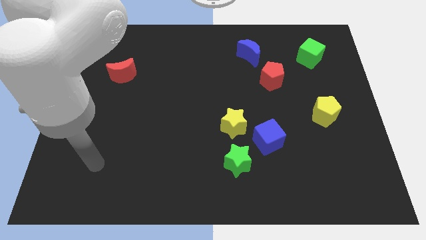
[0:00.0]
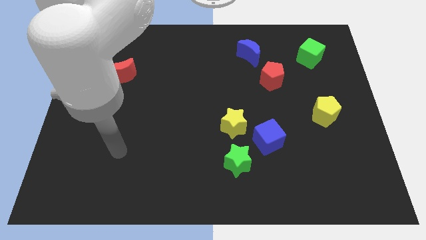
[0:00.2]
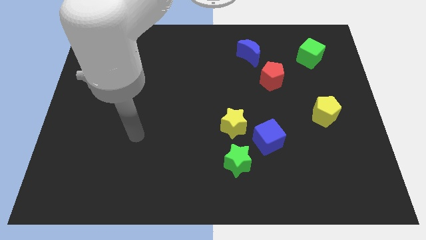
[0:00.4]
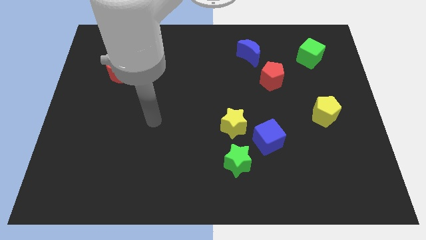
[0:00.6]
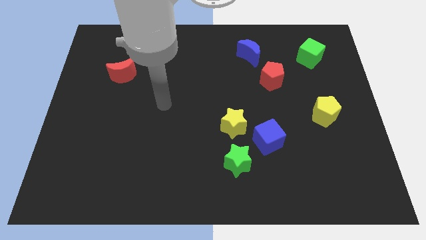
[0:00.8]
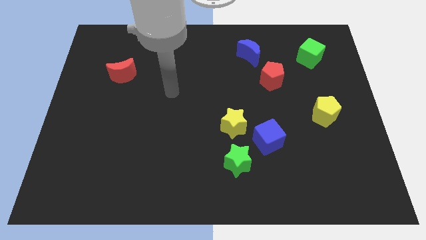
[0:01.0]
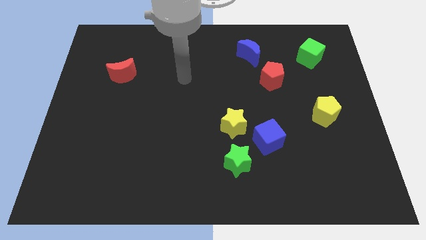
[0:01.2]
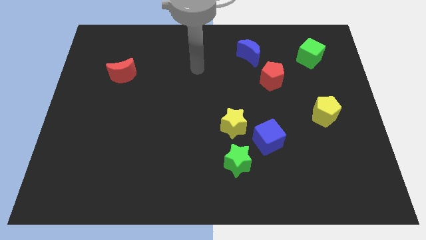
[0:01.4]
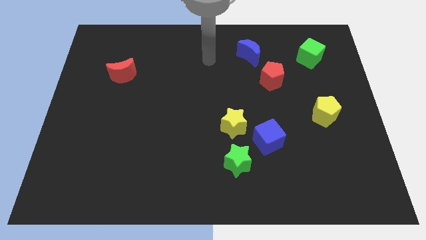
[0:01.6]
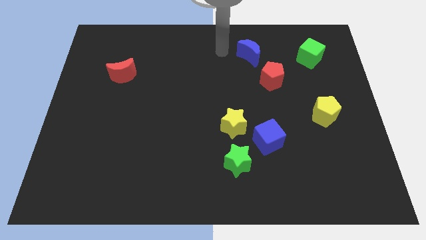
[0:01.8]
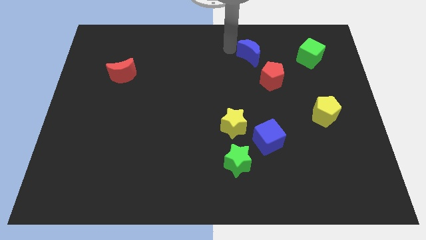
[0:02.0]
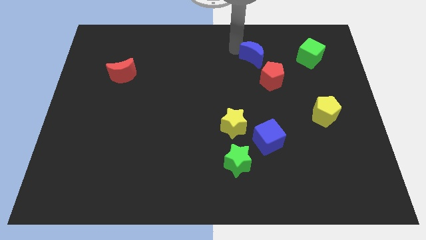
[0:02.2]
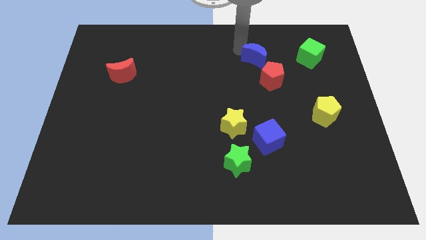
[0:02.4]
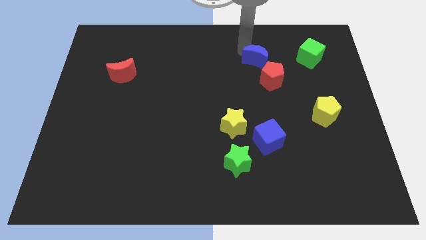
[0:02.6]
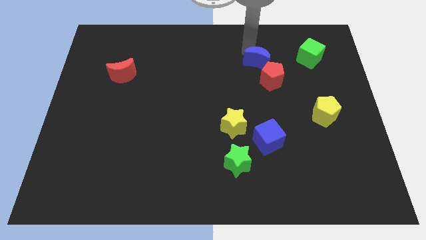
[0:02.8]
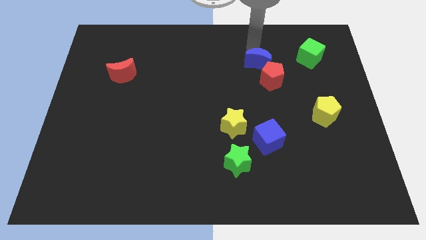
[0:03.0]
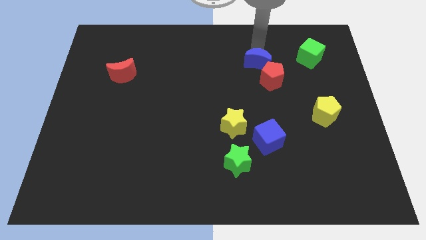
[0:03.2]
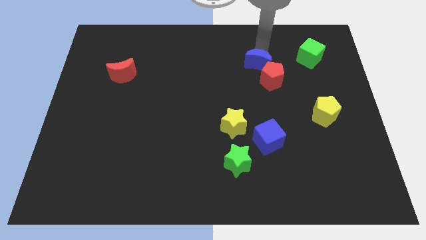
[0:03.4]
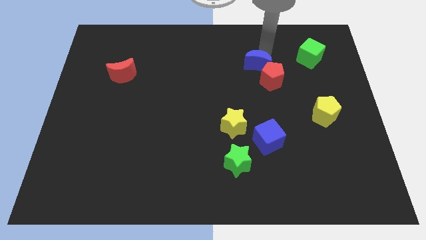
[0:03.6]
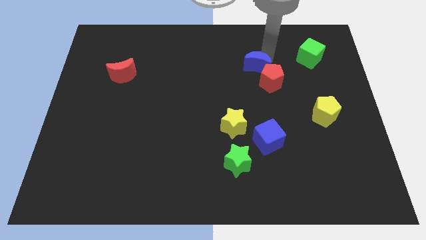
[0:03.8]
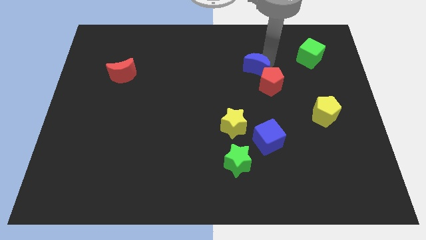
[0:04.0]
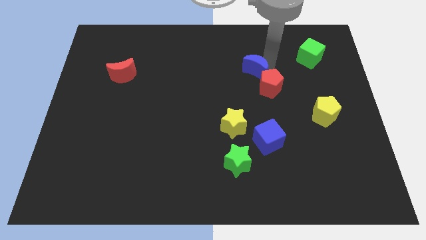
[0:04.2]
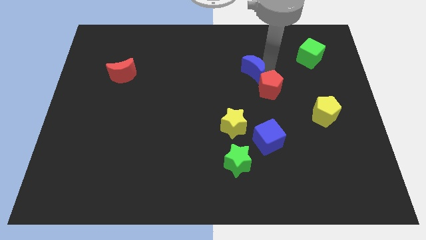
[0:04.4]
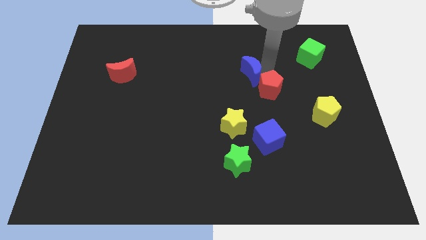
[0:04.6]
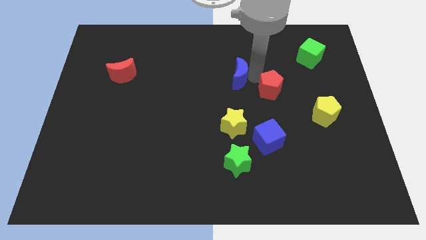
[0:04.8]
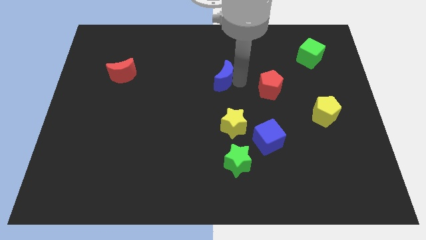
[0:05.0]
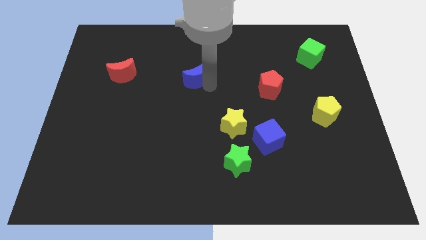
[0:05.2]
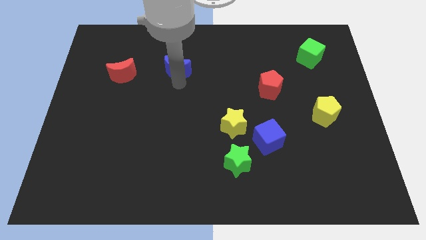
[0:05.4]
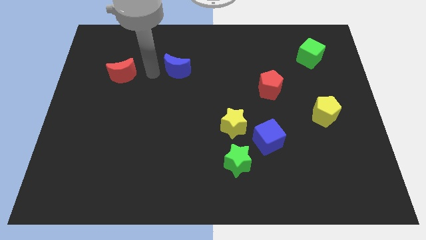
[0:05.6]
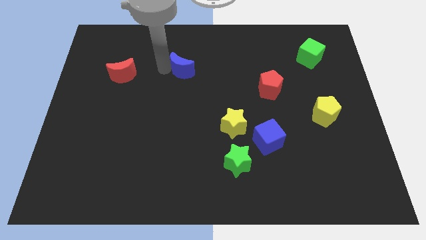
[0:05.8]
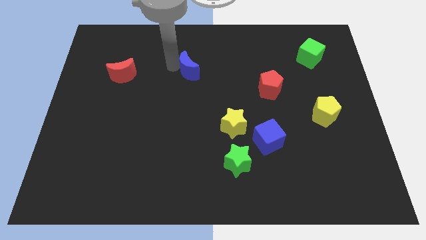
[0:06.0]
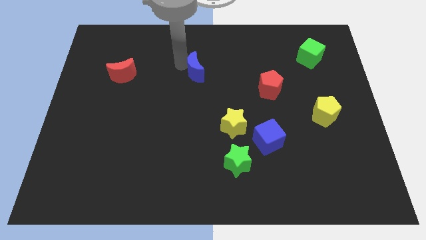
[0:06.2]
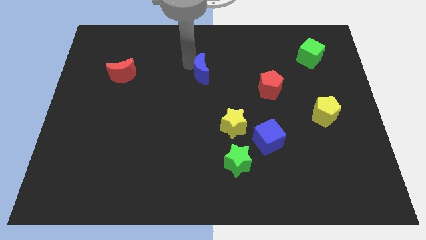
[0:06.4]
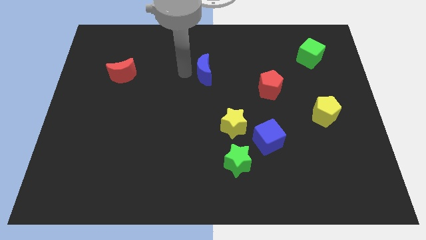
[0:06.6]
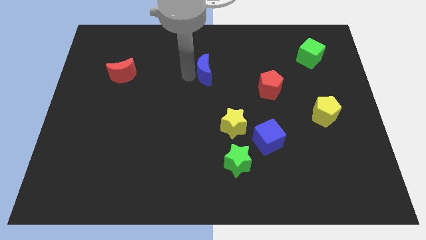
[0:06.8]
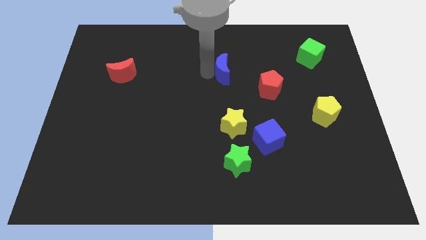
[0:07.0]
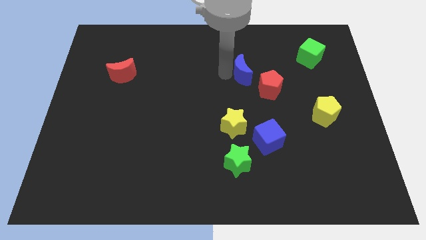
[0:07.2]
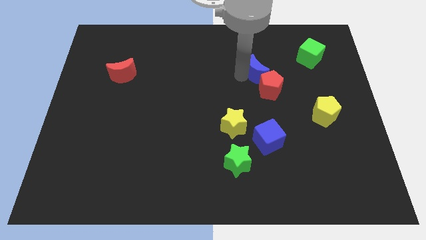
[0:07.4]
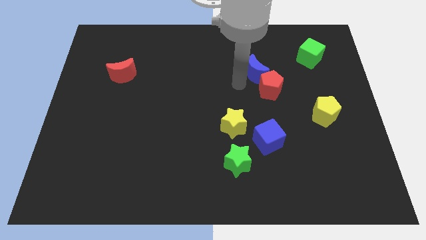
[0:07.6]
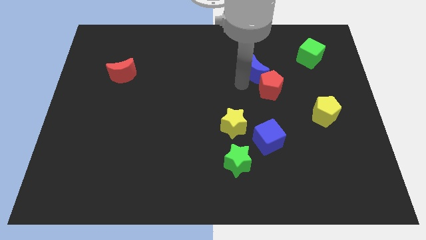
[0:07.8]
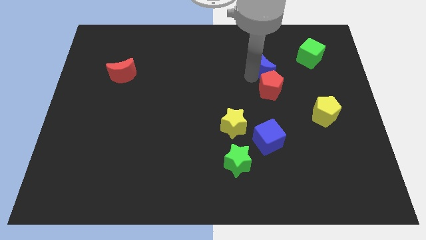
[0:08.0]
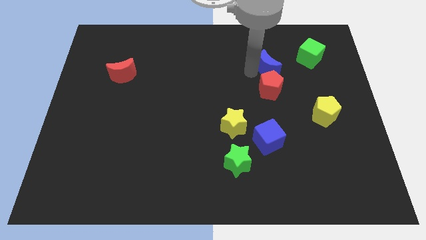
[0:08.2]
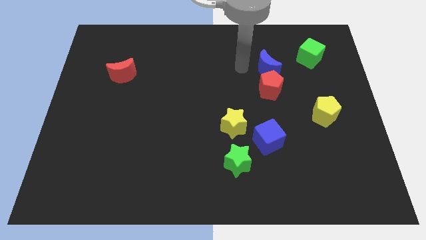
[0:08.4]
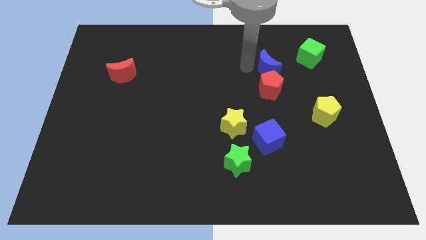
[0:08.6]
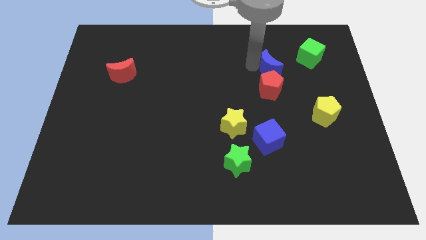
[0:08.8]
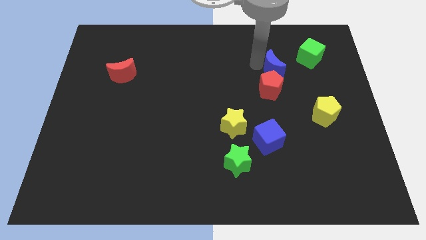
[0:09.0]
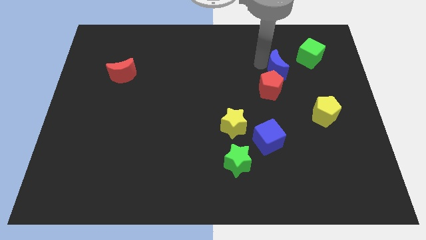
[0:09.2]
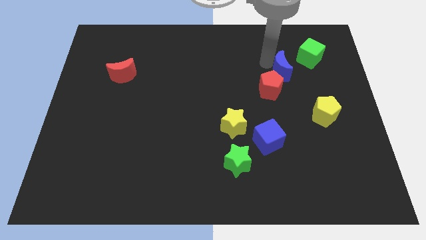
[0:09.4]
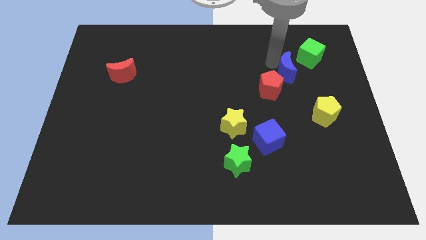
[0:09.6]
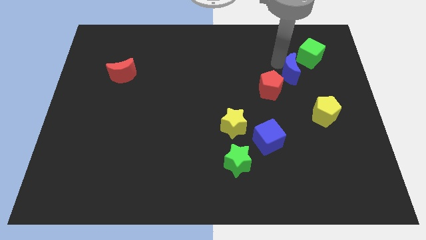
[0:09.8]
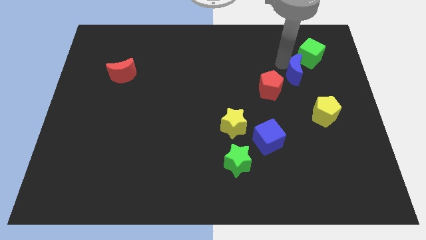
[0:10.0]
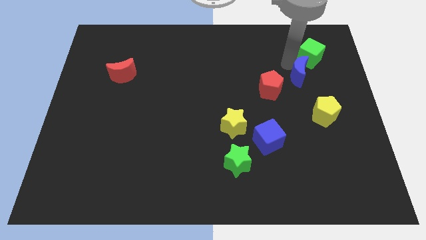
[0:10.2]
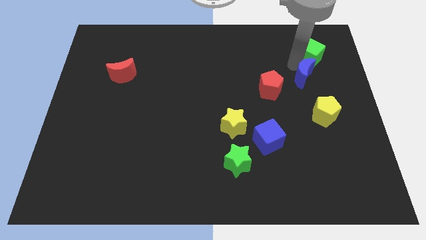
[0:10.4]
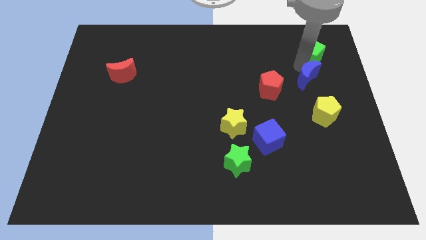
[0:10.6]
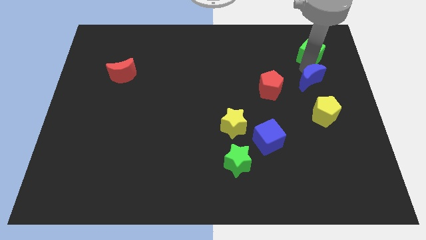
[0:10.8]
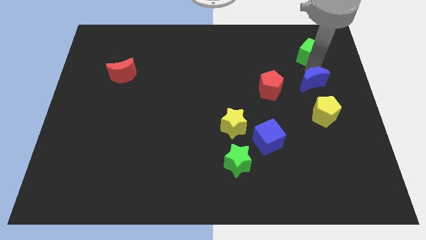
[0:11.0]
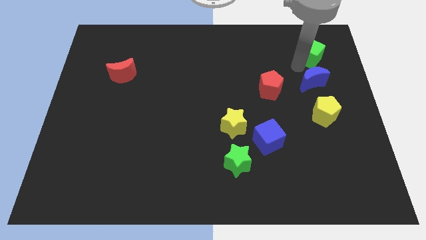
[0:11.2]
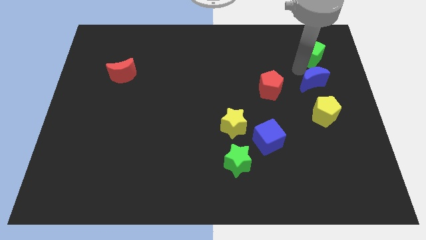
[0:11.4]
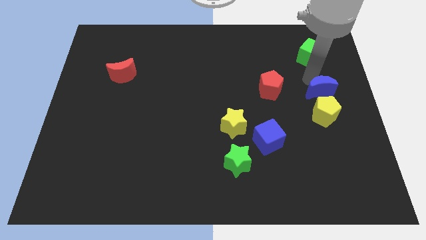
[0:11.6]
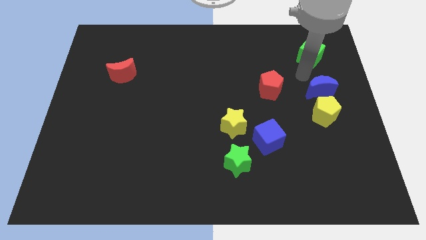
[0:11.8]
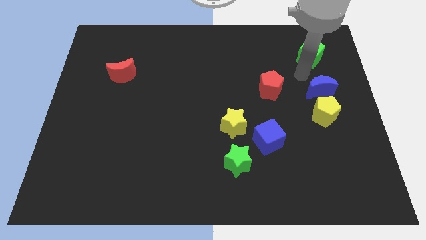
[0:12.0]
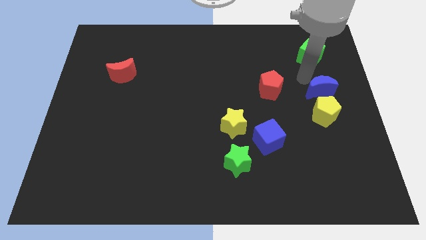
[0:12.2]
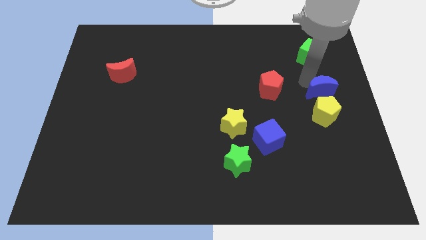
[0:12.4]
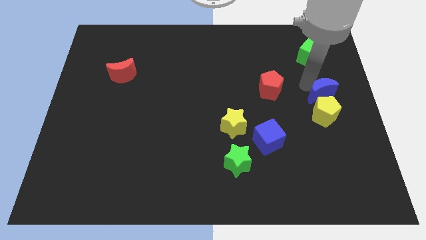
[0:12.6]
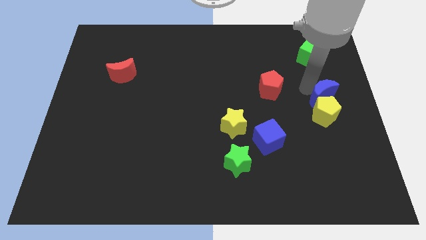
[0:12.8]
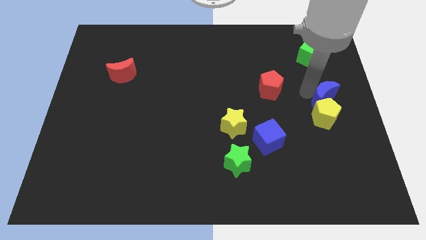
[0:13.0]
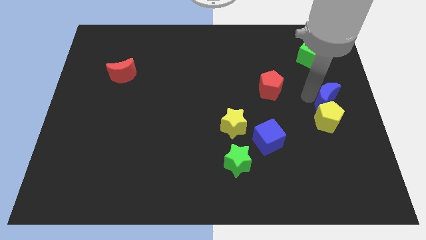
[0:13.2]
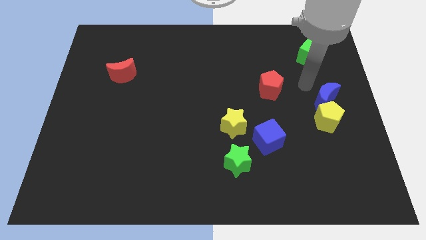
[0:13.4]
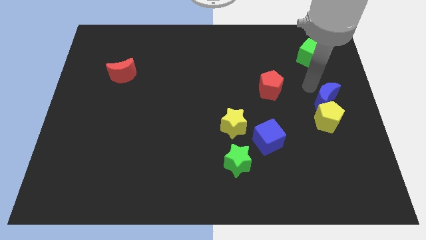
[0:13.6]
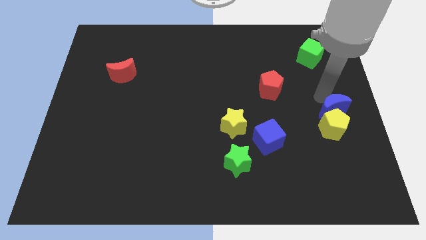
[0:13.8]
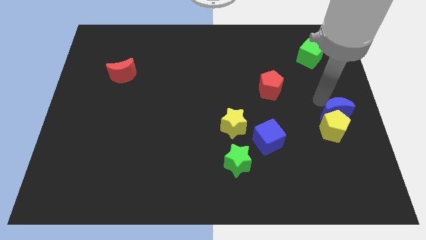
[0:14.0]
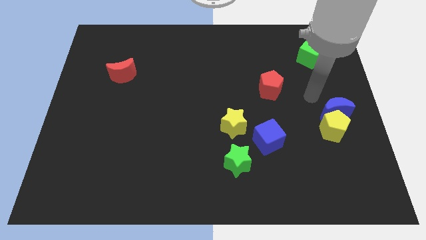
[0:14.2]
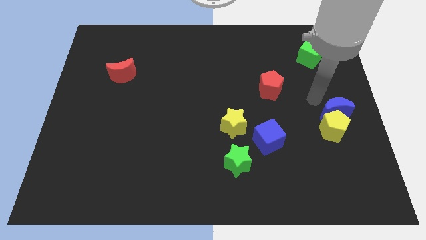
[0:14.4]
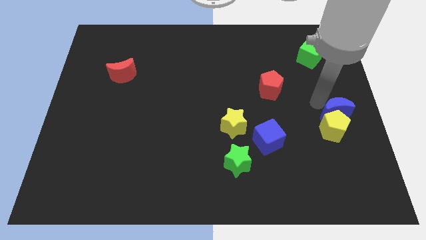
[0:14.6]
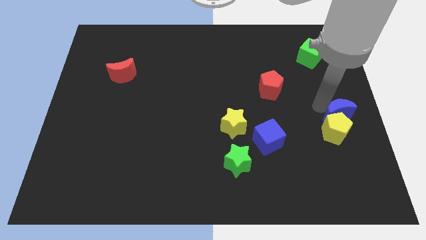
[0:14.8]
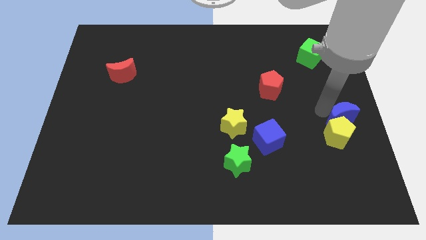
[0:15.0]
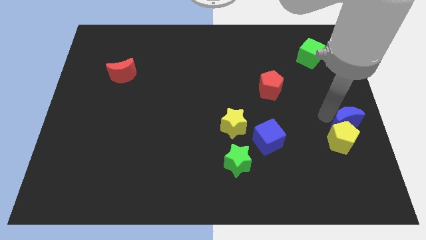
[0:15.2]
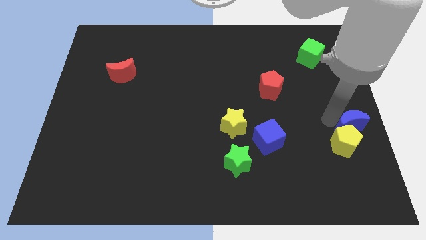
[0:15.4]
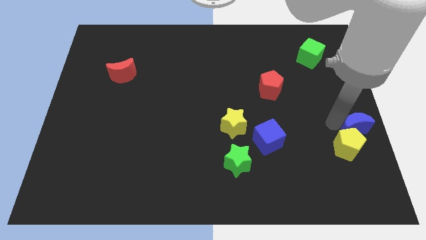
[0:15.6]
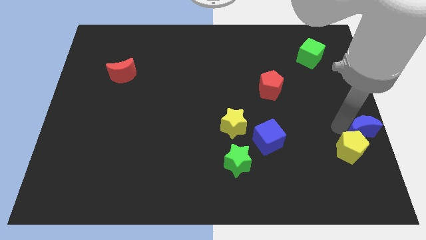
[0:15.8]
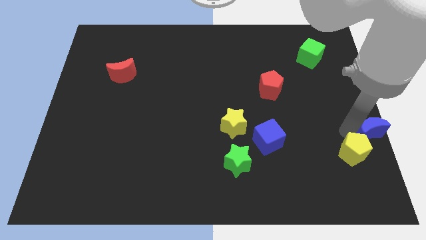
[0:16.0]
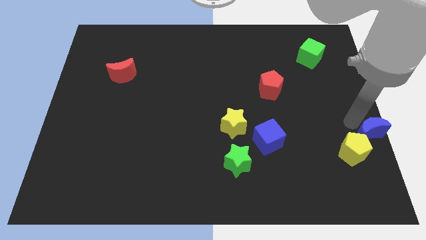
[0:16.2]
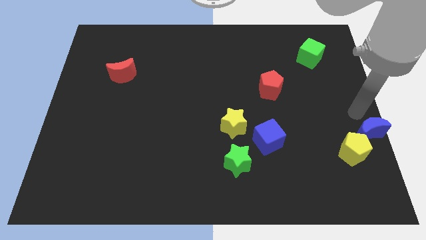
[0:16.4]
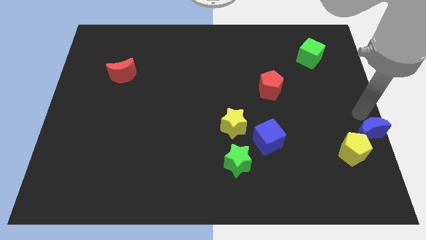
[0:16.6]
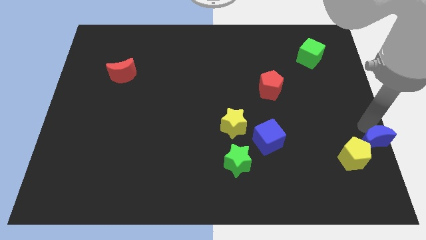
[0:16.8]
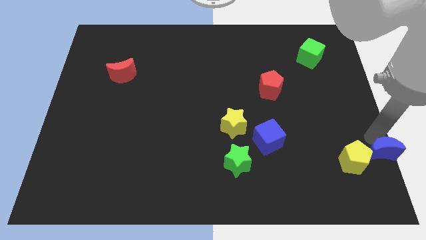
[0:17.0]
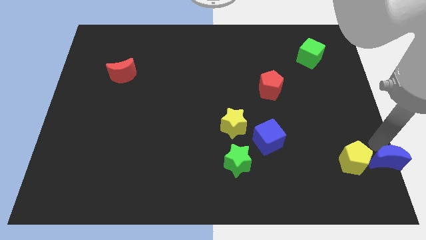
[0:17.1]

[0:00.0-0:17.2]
slide the blue moon to the lower right corner
